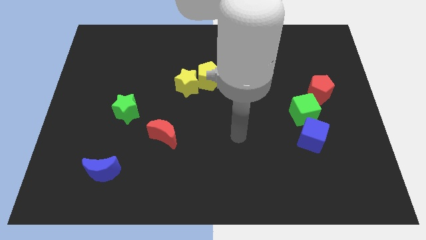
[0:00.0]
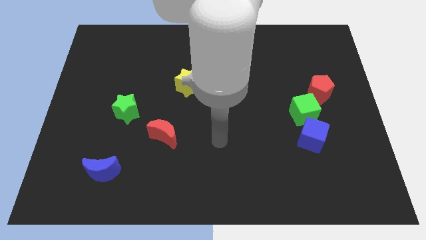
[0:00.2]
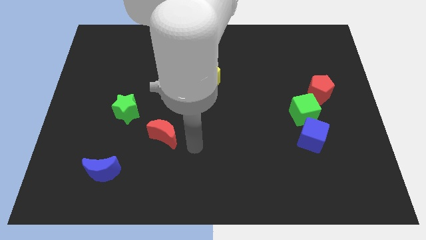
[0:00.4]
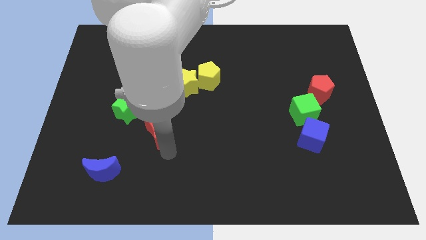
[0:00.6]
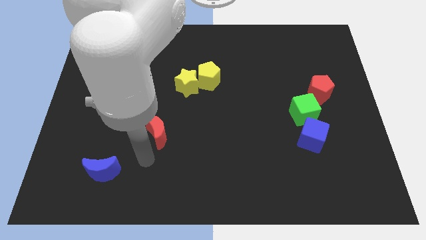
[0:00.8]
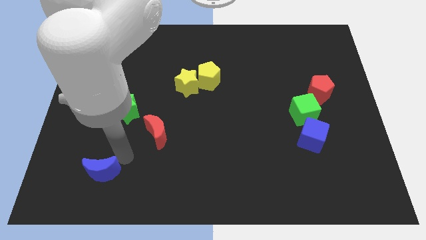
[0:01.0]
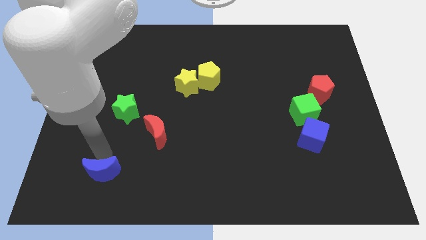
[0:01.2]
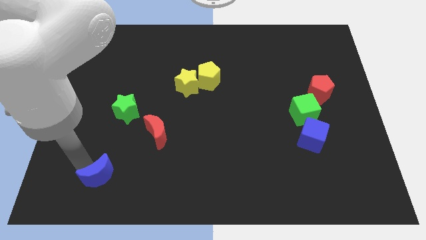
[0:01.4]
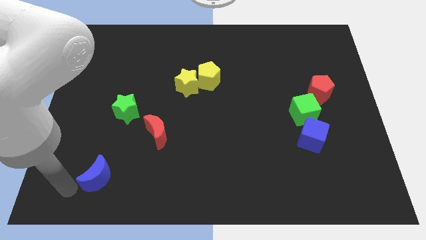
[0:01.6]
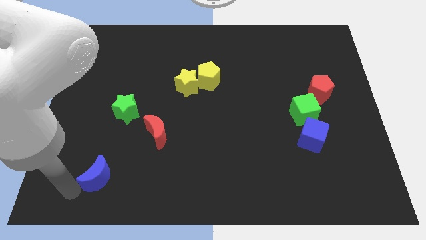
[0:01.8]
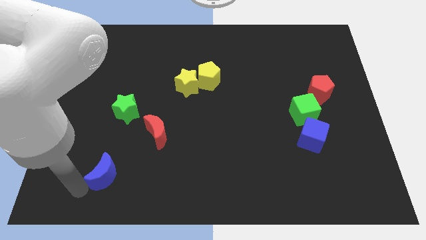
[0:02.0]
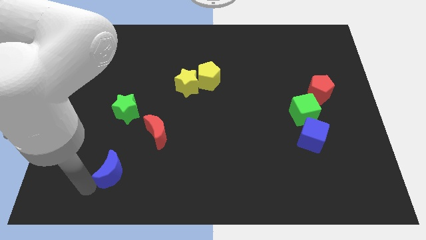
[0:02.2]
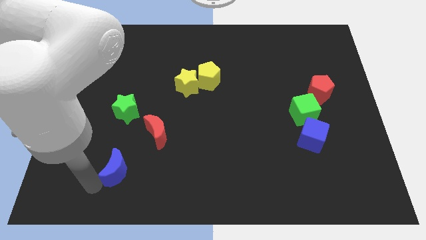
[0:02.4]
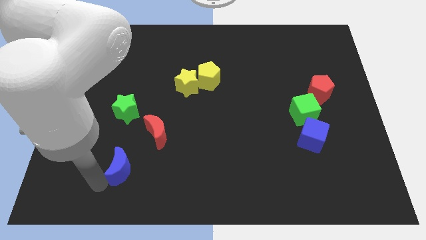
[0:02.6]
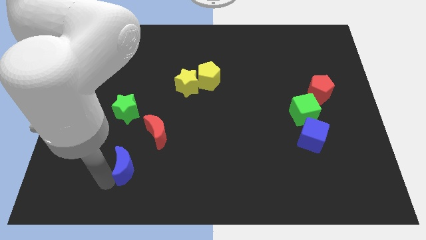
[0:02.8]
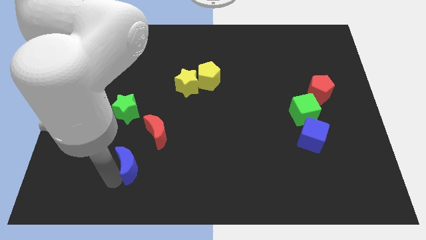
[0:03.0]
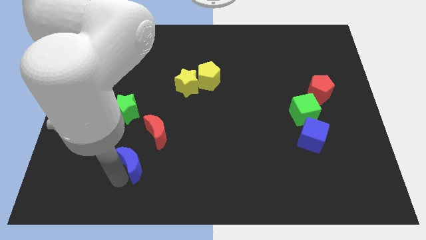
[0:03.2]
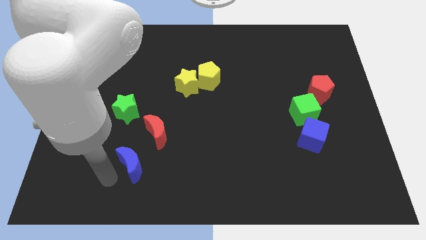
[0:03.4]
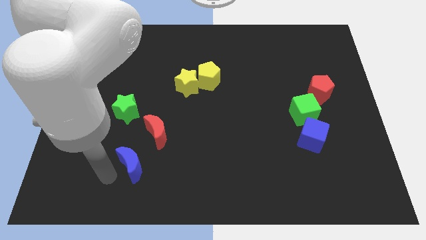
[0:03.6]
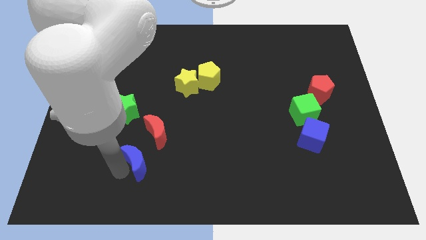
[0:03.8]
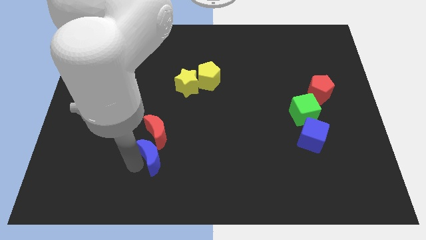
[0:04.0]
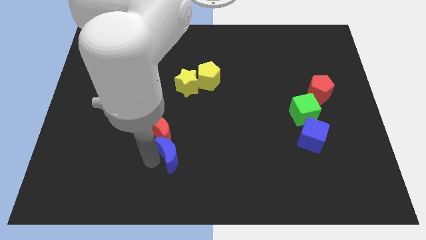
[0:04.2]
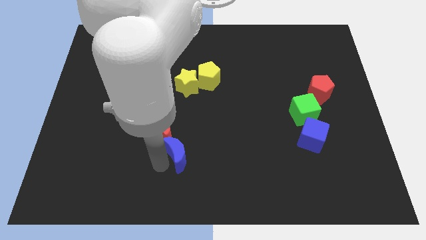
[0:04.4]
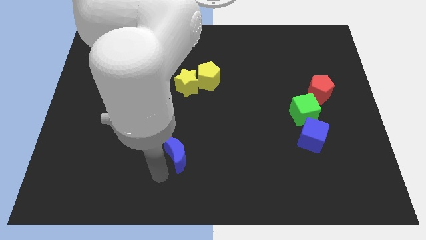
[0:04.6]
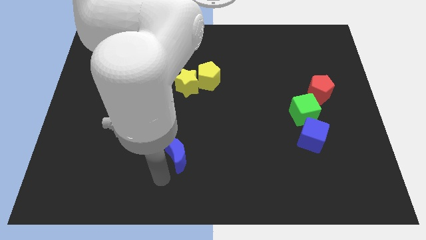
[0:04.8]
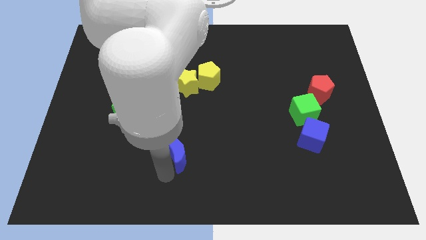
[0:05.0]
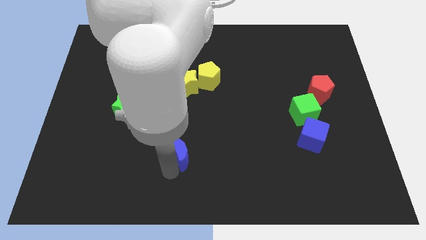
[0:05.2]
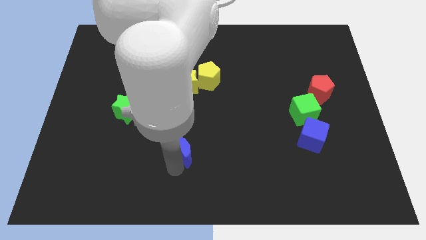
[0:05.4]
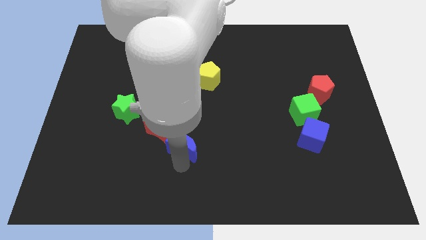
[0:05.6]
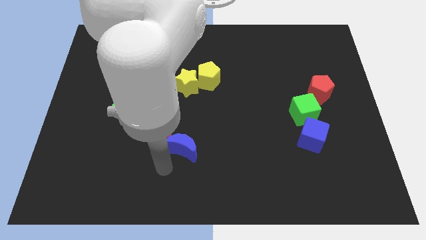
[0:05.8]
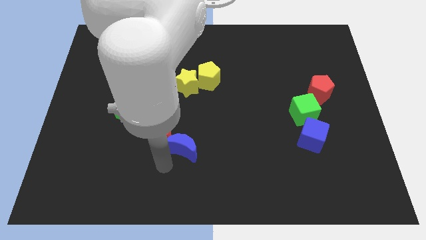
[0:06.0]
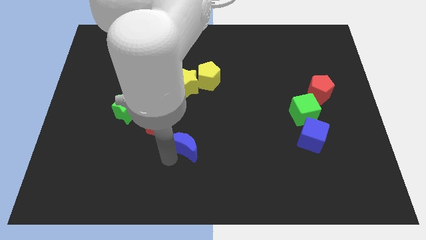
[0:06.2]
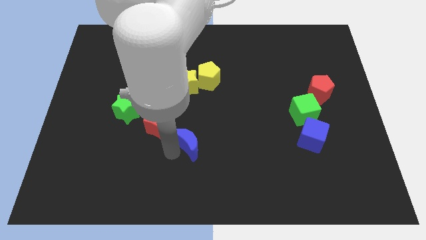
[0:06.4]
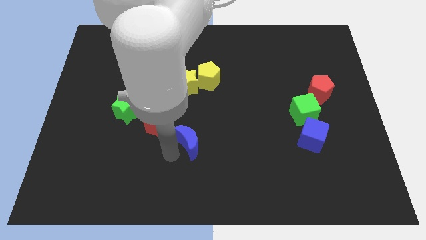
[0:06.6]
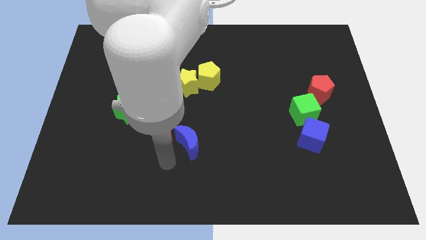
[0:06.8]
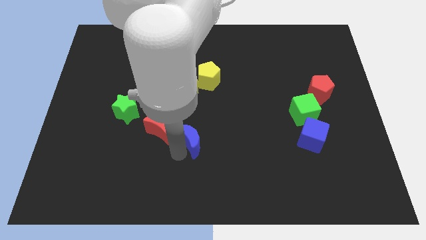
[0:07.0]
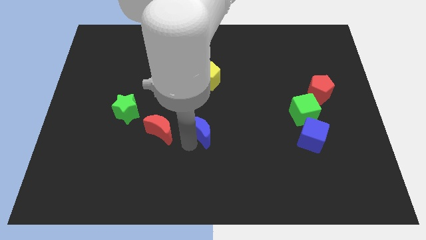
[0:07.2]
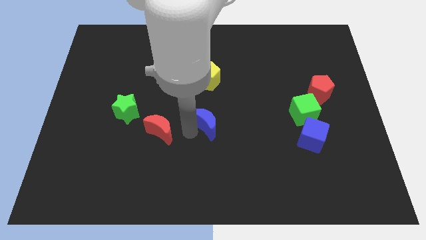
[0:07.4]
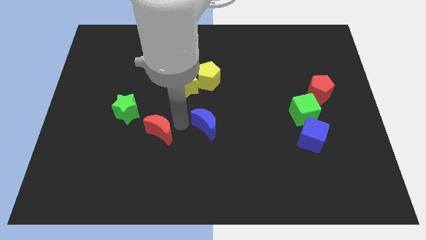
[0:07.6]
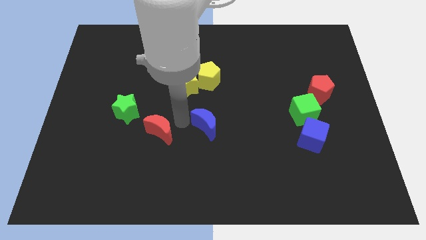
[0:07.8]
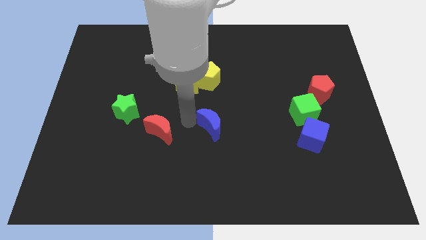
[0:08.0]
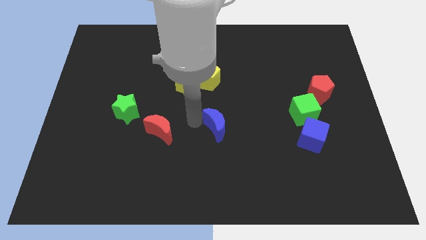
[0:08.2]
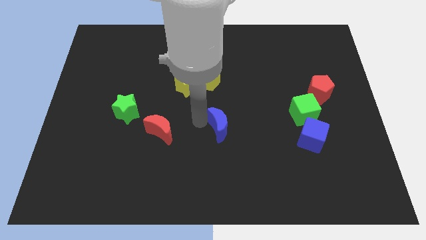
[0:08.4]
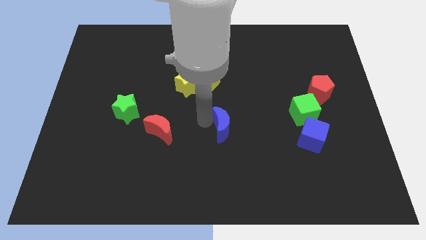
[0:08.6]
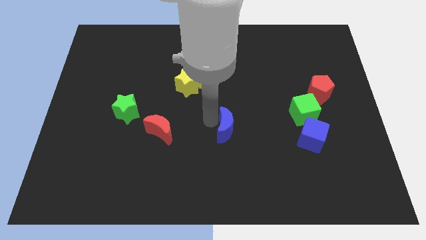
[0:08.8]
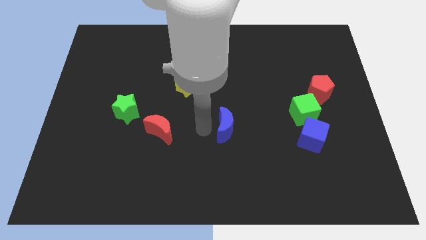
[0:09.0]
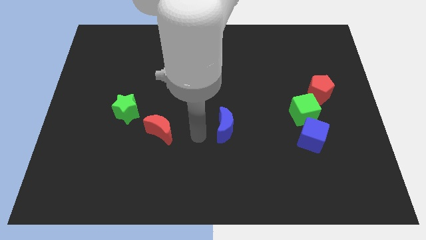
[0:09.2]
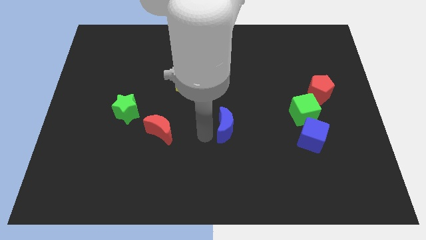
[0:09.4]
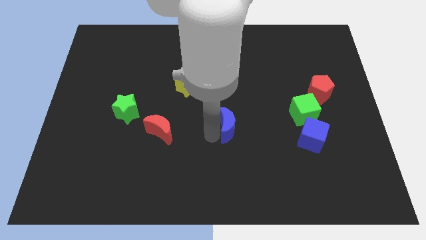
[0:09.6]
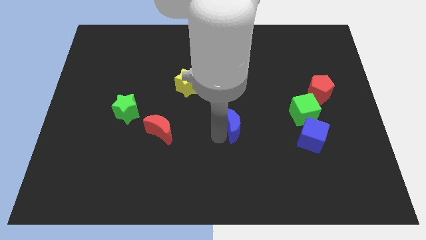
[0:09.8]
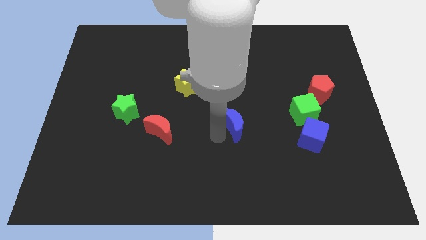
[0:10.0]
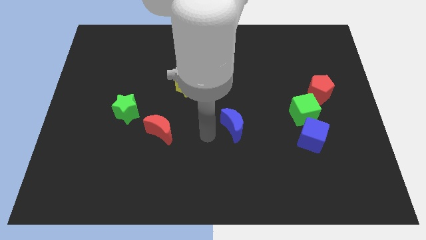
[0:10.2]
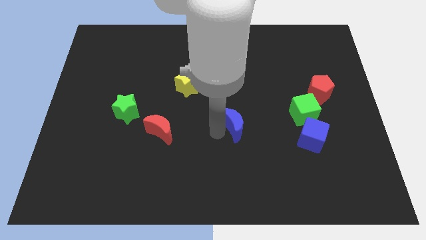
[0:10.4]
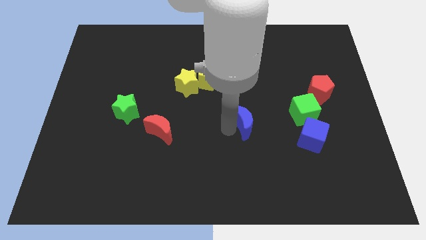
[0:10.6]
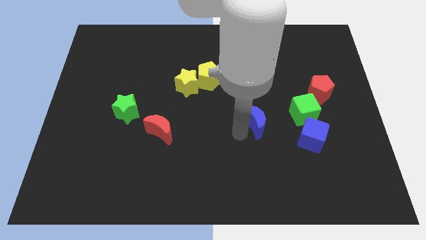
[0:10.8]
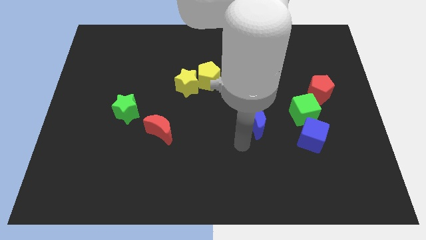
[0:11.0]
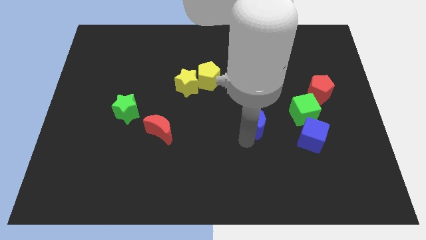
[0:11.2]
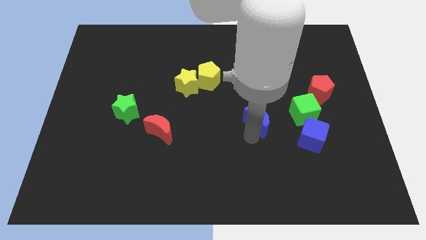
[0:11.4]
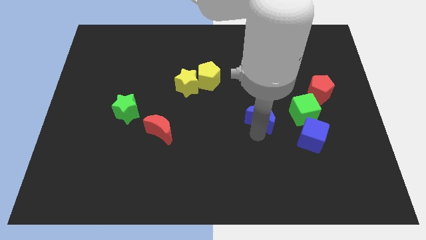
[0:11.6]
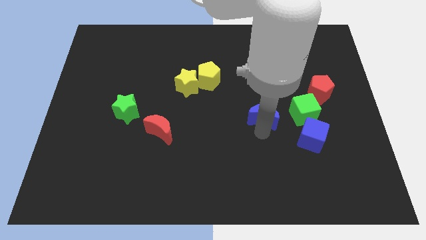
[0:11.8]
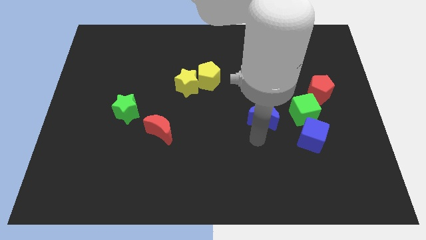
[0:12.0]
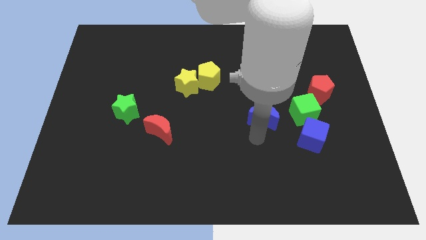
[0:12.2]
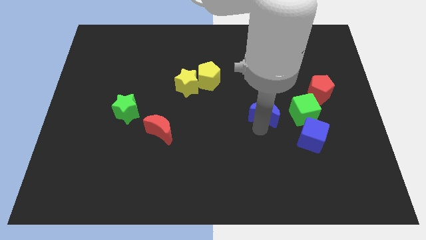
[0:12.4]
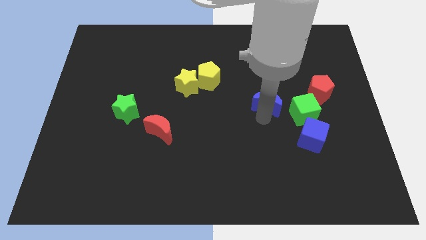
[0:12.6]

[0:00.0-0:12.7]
slide the blue moon to the left side of the red pentagon

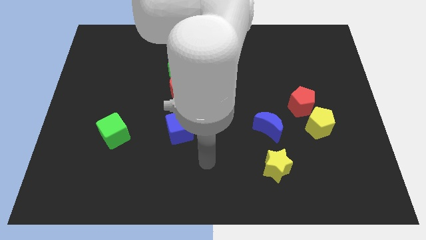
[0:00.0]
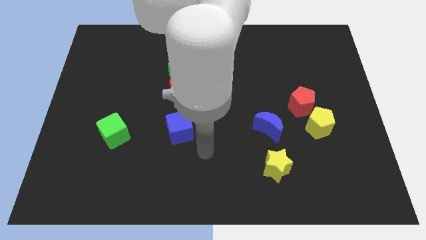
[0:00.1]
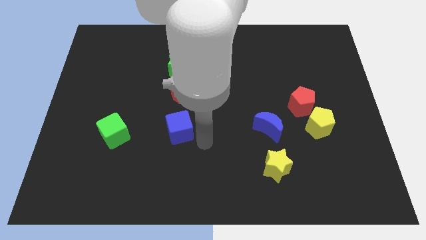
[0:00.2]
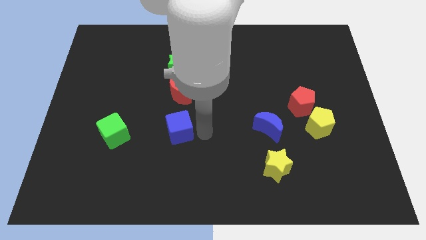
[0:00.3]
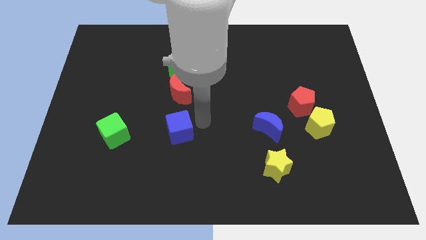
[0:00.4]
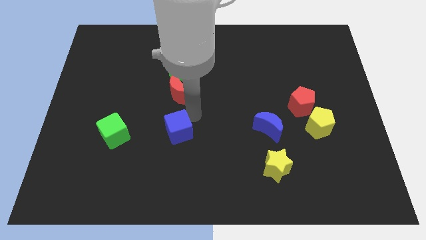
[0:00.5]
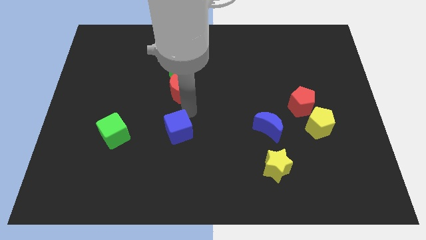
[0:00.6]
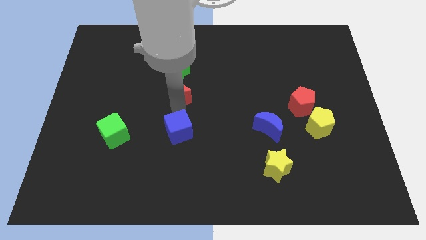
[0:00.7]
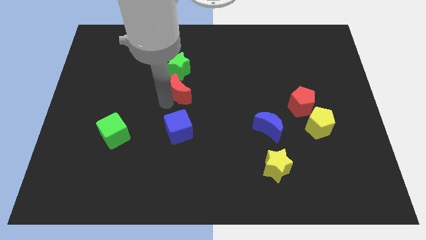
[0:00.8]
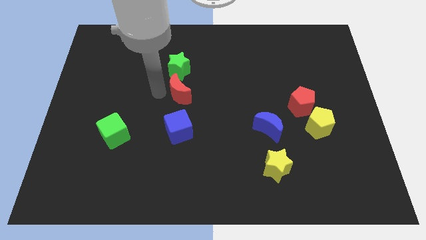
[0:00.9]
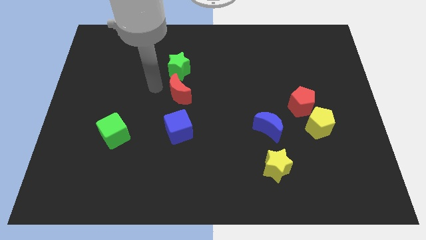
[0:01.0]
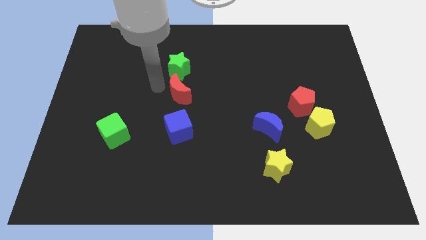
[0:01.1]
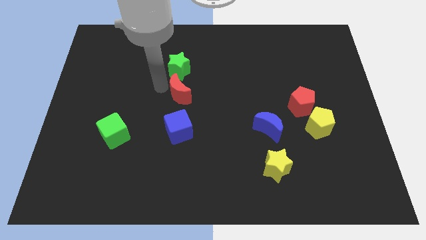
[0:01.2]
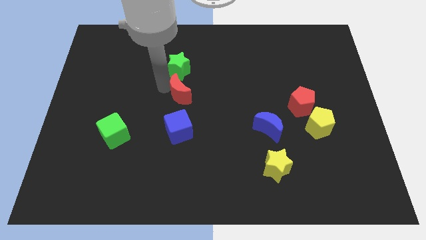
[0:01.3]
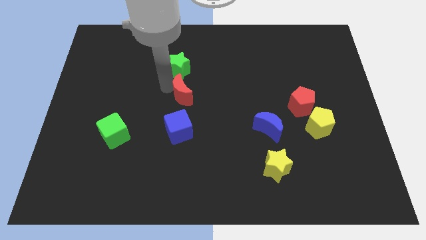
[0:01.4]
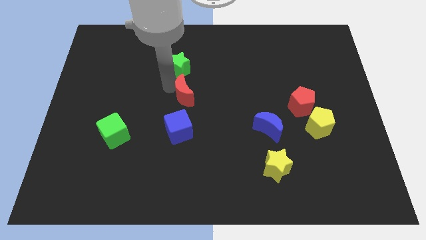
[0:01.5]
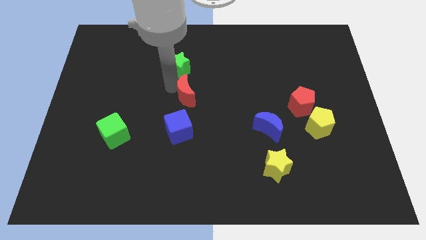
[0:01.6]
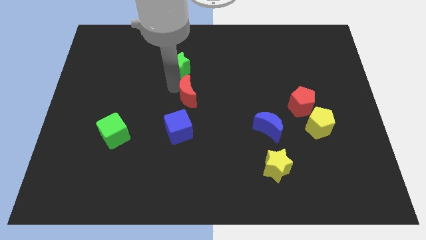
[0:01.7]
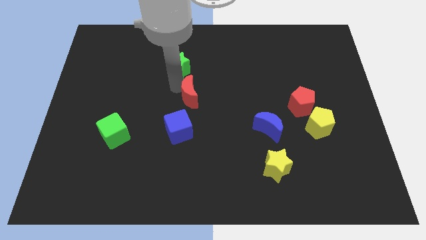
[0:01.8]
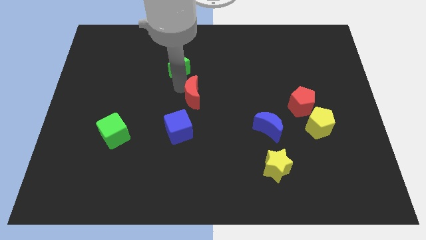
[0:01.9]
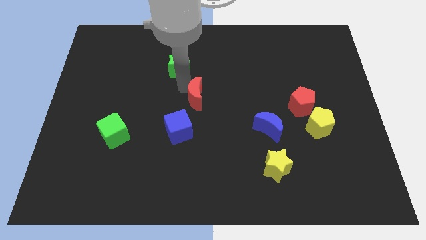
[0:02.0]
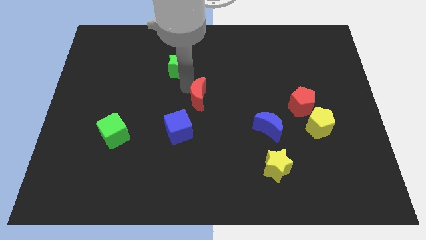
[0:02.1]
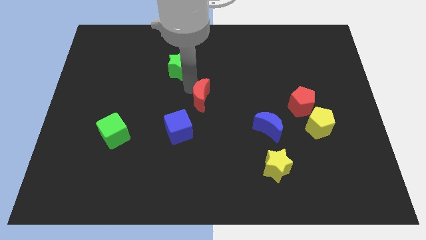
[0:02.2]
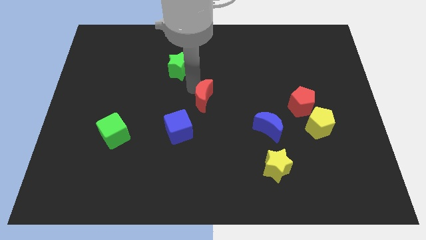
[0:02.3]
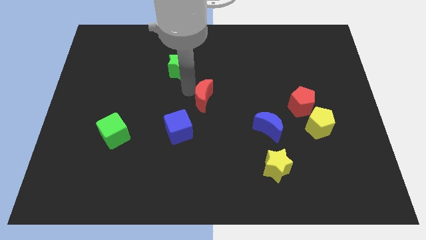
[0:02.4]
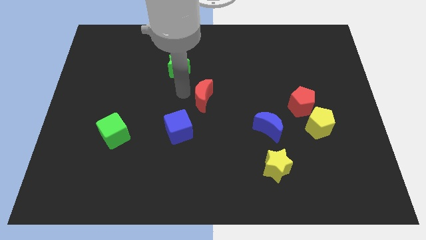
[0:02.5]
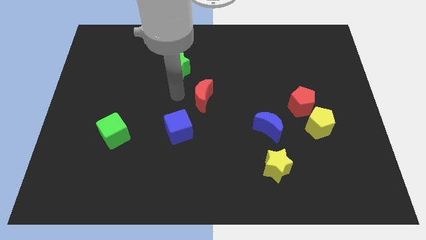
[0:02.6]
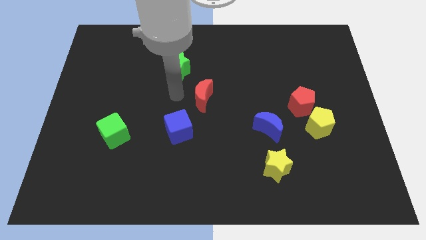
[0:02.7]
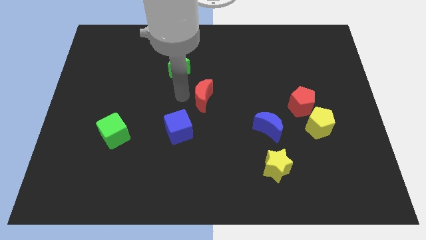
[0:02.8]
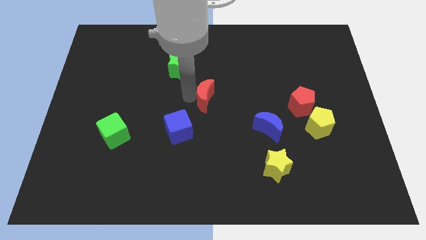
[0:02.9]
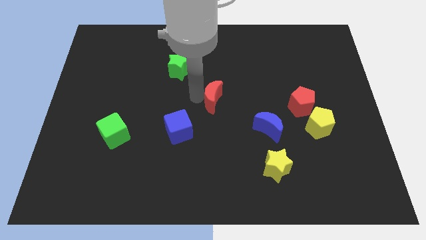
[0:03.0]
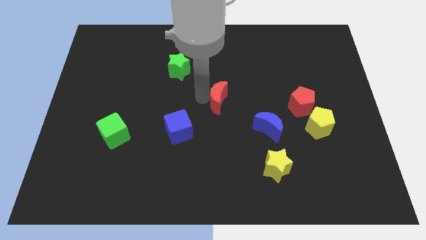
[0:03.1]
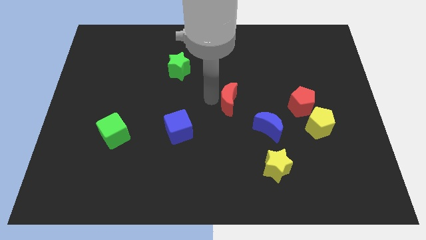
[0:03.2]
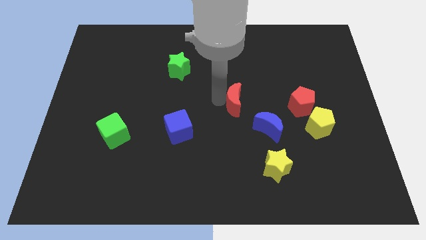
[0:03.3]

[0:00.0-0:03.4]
push the red moon just left of the red pentagon
